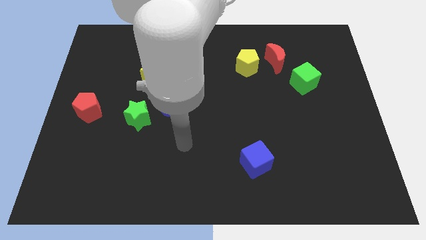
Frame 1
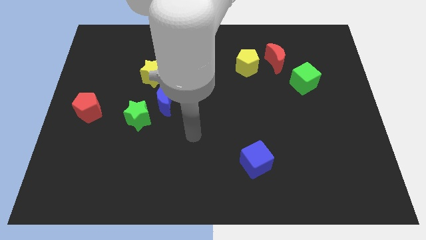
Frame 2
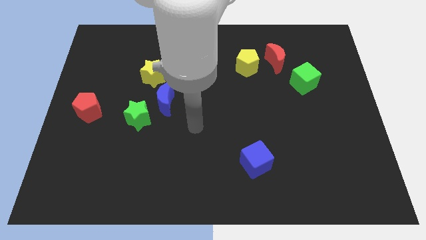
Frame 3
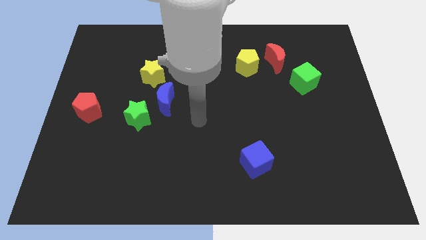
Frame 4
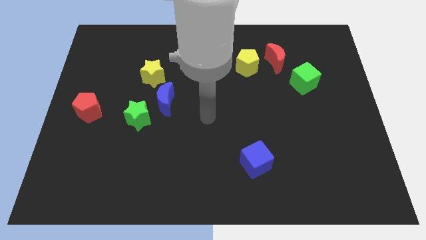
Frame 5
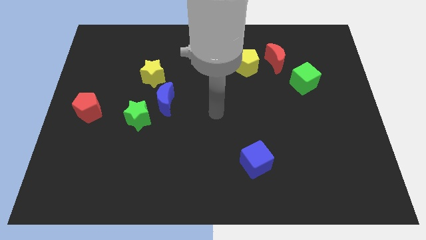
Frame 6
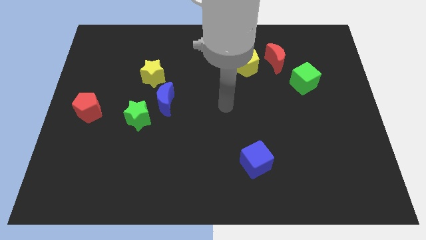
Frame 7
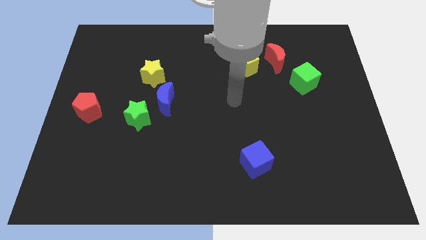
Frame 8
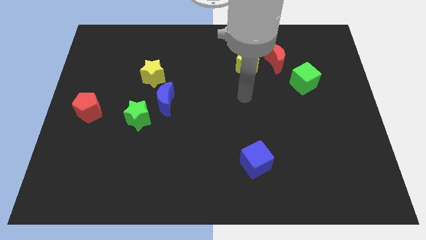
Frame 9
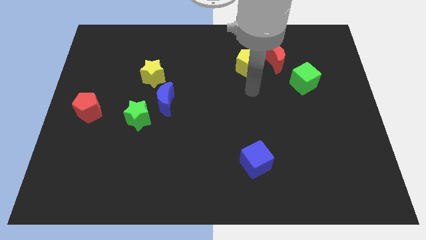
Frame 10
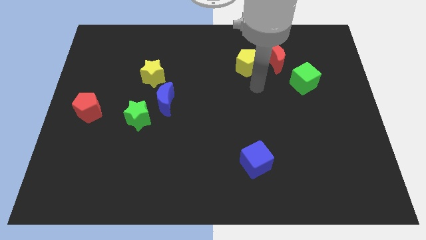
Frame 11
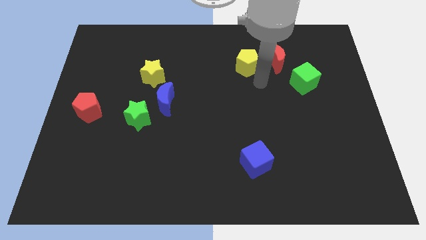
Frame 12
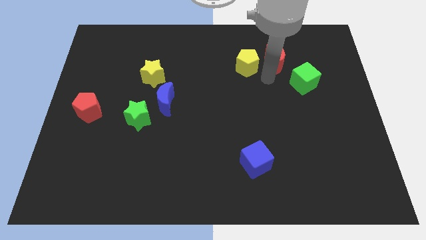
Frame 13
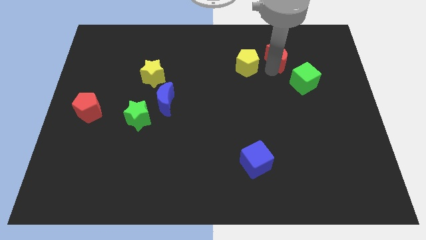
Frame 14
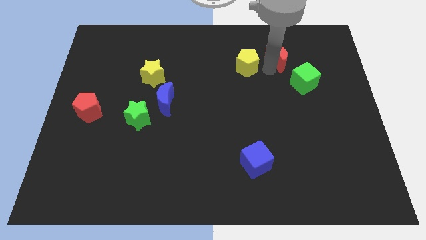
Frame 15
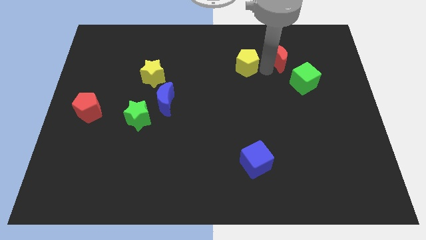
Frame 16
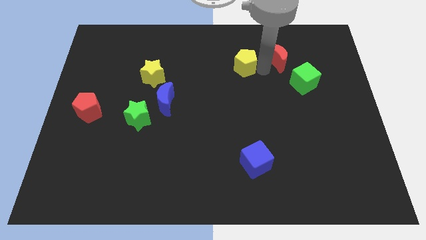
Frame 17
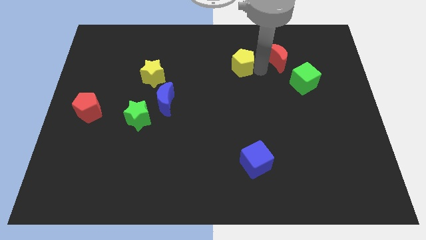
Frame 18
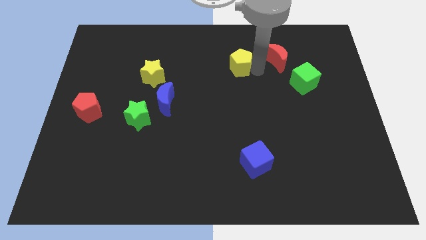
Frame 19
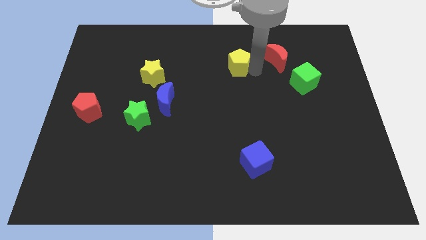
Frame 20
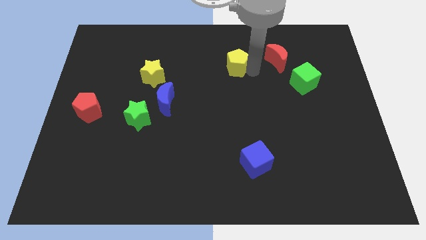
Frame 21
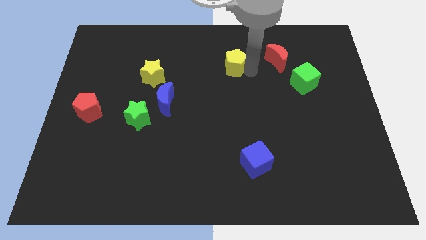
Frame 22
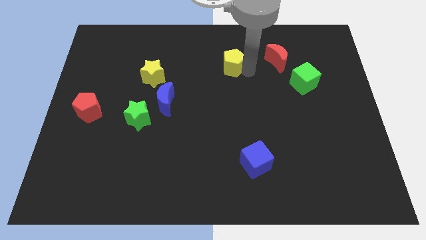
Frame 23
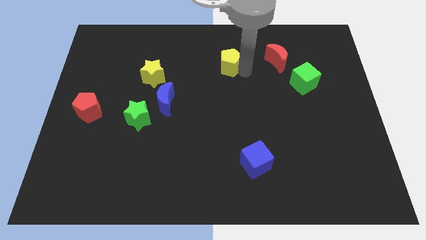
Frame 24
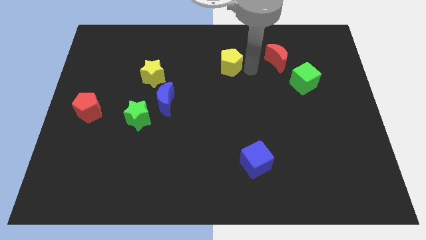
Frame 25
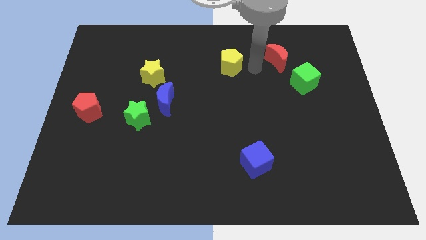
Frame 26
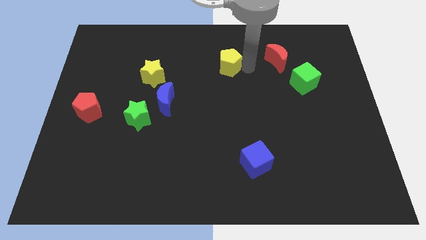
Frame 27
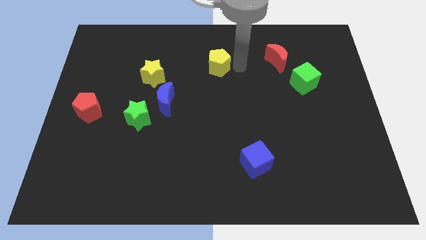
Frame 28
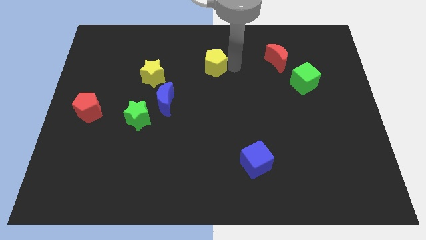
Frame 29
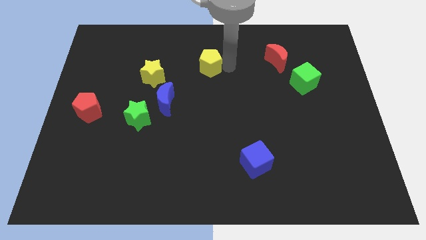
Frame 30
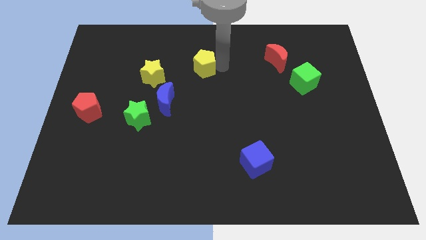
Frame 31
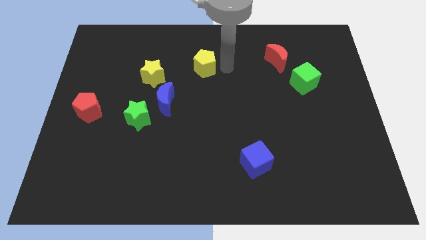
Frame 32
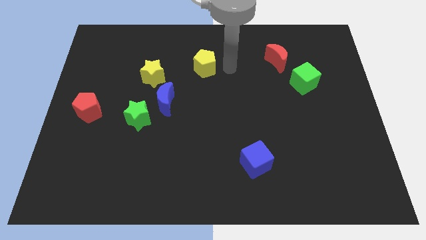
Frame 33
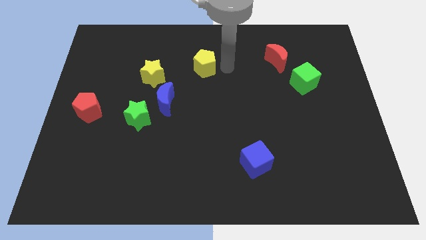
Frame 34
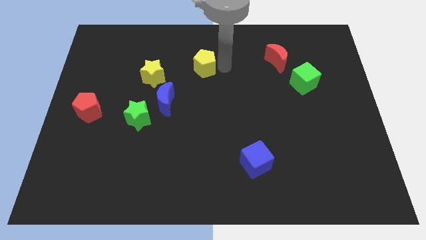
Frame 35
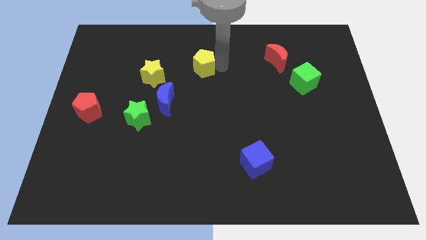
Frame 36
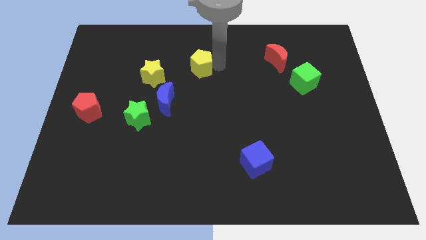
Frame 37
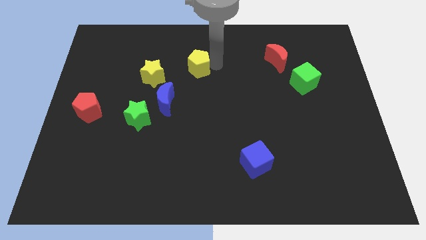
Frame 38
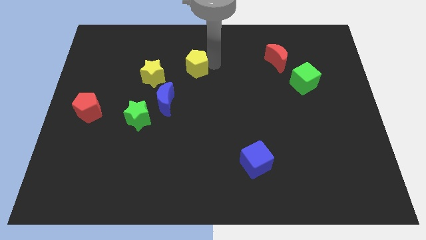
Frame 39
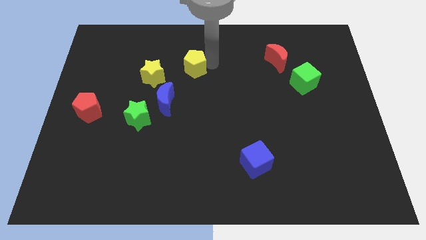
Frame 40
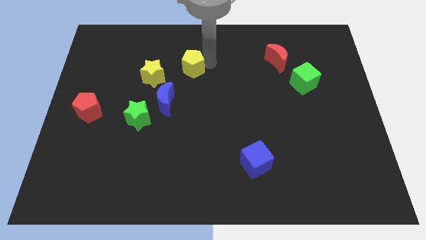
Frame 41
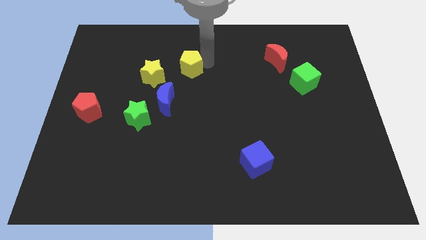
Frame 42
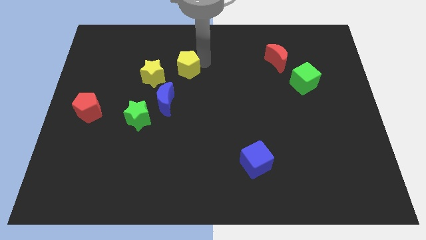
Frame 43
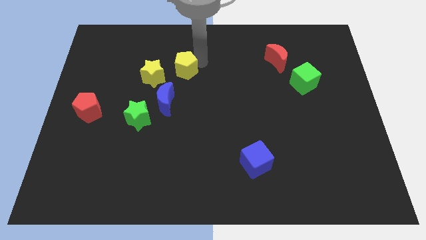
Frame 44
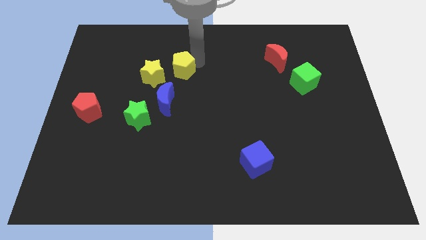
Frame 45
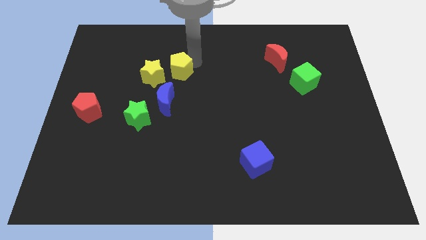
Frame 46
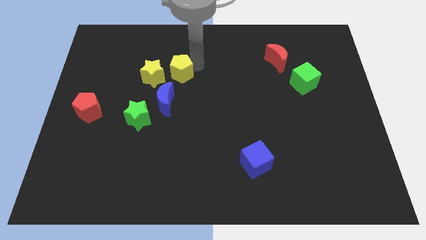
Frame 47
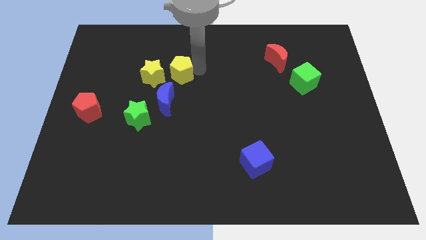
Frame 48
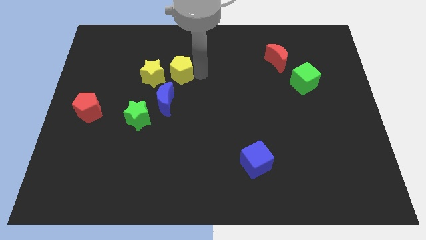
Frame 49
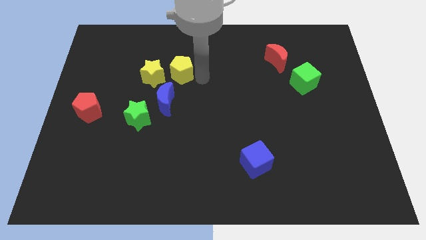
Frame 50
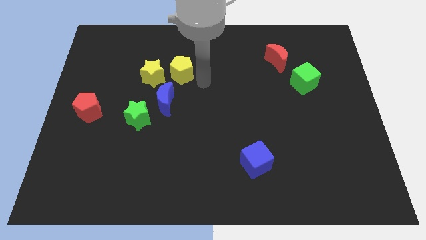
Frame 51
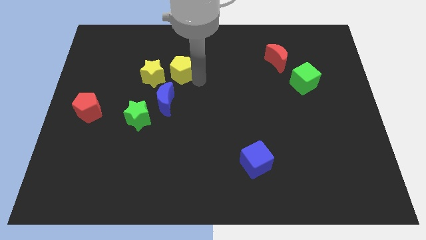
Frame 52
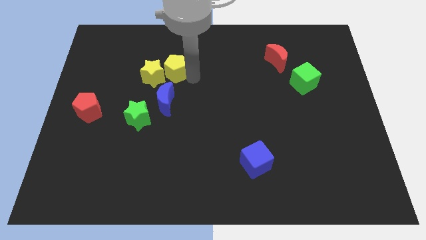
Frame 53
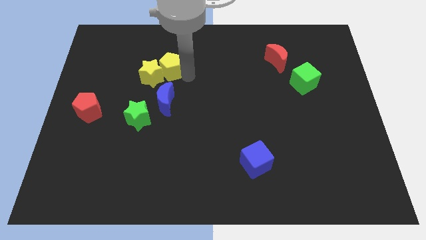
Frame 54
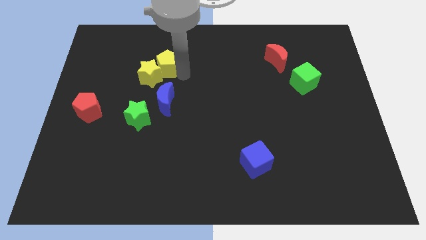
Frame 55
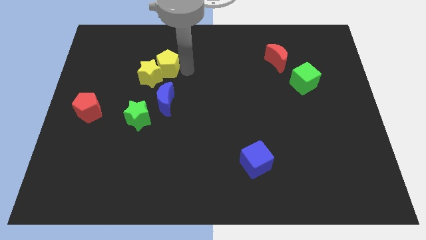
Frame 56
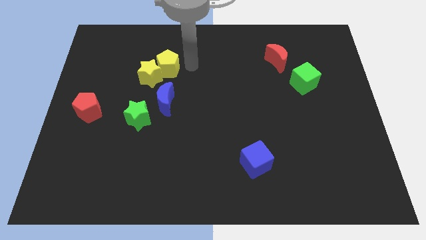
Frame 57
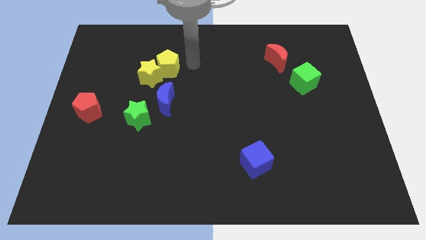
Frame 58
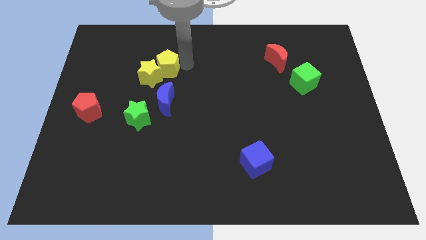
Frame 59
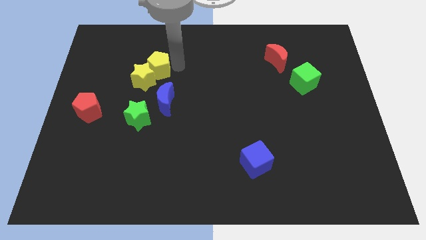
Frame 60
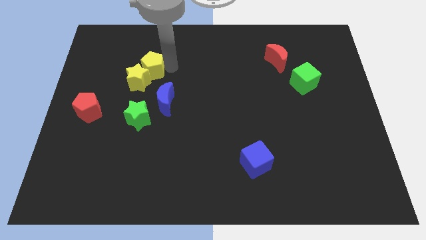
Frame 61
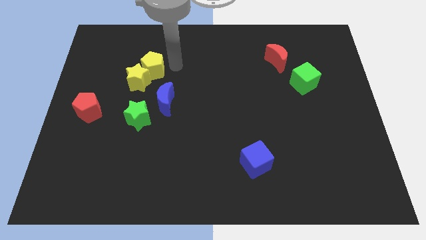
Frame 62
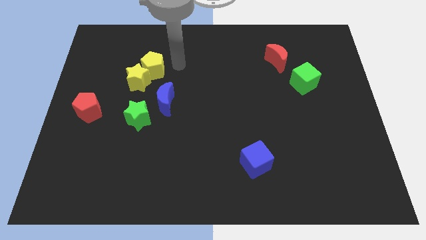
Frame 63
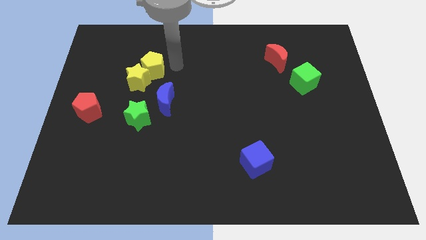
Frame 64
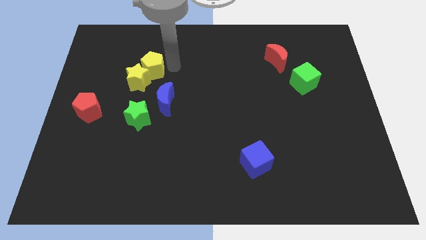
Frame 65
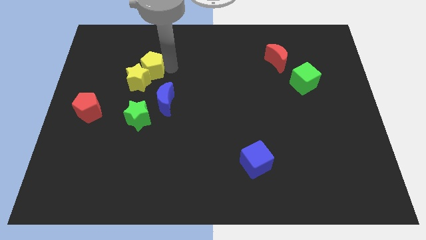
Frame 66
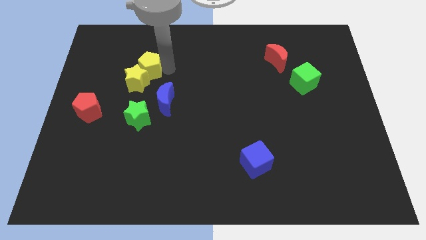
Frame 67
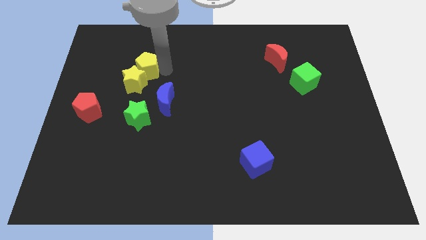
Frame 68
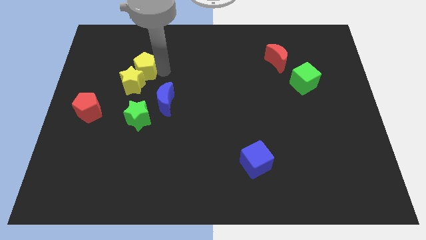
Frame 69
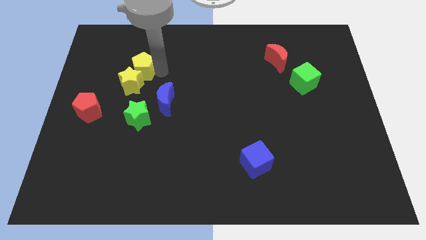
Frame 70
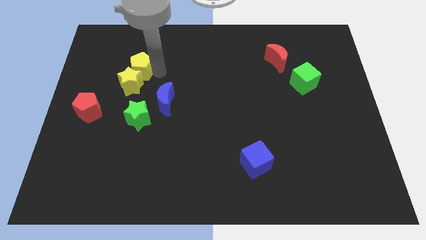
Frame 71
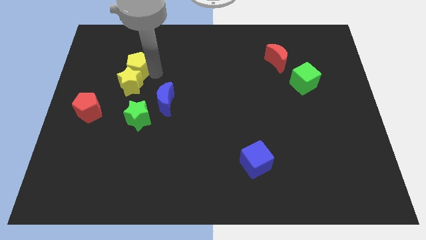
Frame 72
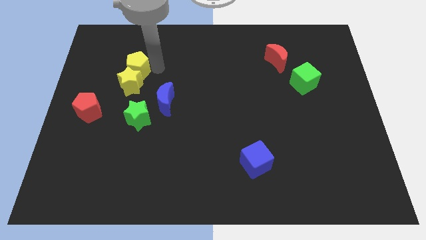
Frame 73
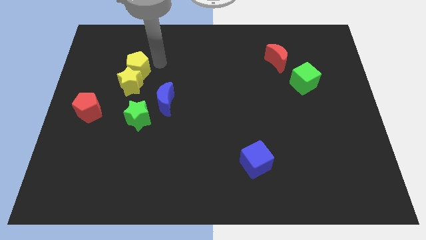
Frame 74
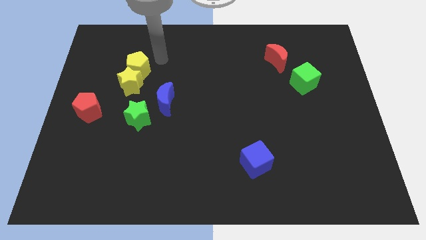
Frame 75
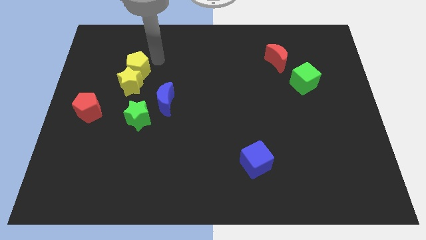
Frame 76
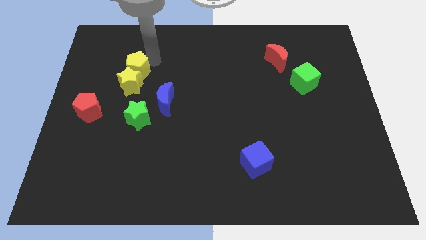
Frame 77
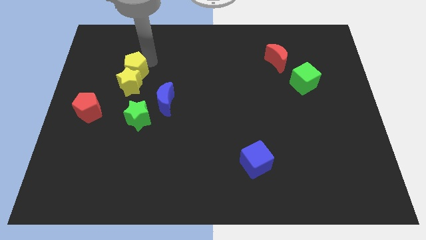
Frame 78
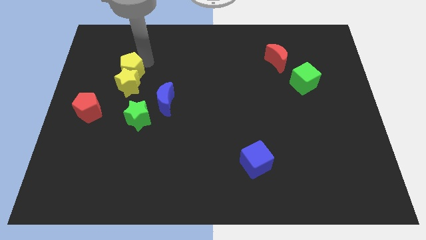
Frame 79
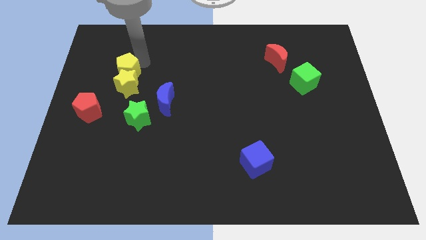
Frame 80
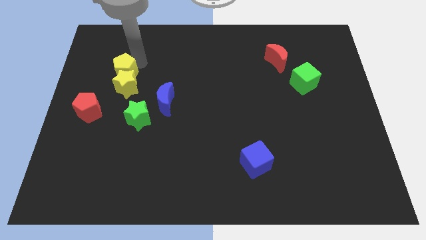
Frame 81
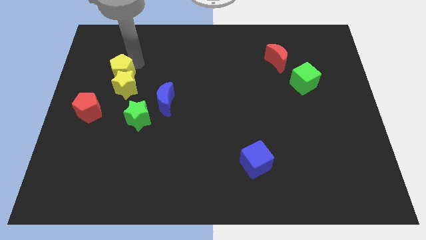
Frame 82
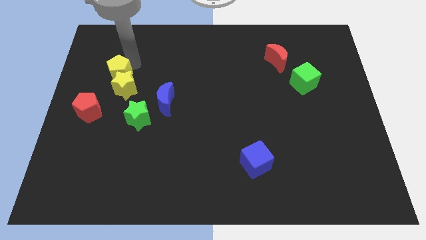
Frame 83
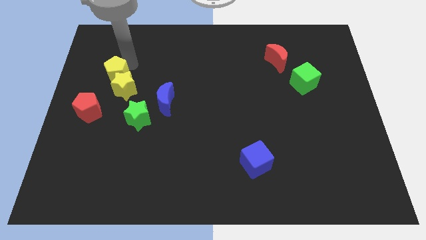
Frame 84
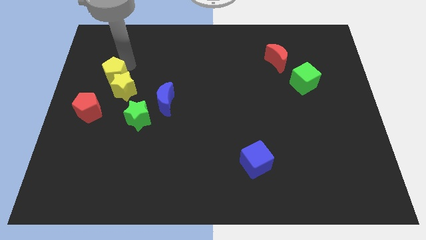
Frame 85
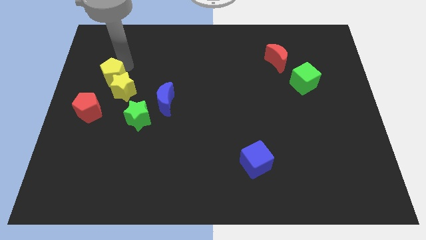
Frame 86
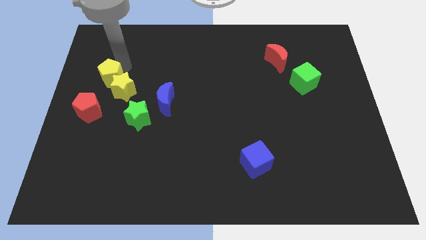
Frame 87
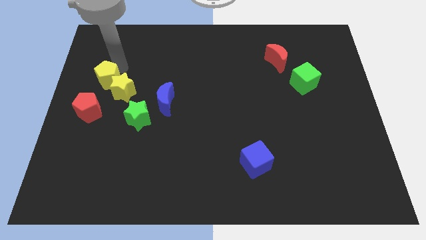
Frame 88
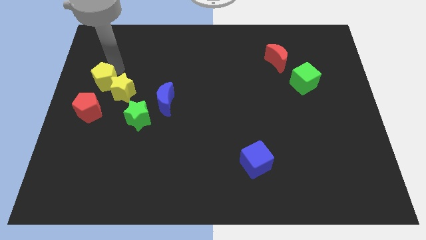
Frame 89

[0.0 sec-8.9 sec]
push the yellow pentagon to the left side
